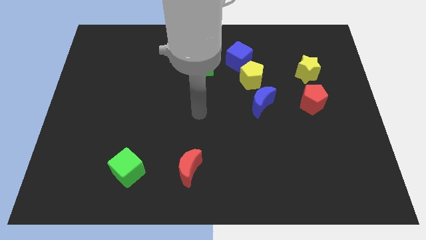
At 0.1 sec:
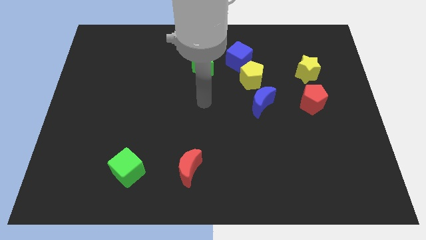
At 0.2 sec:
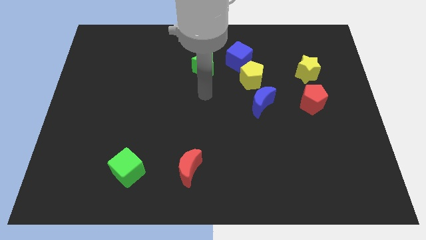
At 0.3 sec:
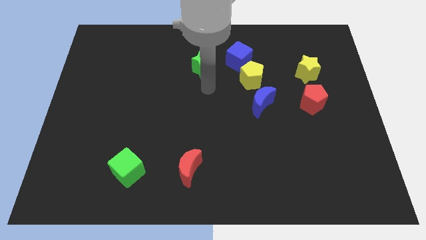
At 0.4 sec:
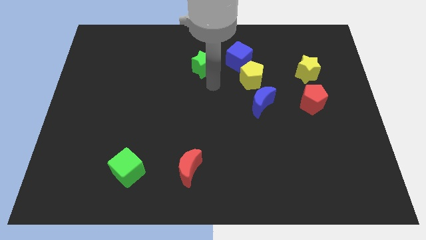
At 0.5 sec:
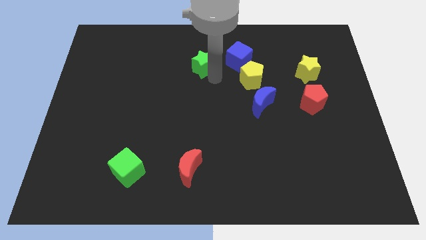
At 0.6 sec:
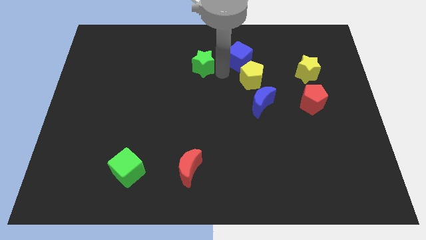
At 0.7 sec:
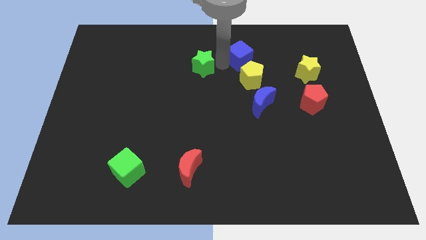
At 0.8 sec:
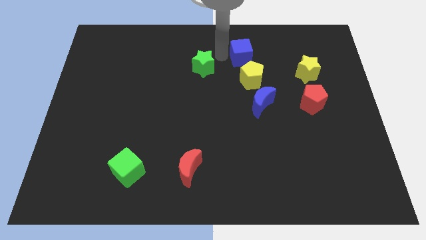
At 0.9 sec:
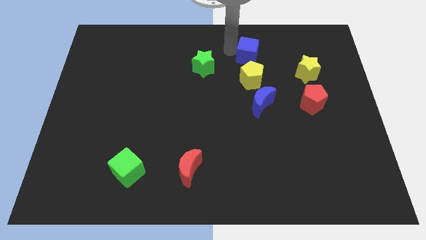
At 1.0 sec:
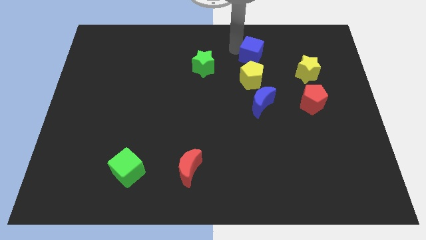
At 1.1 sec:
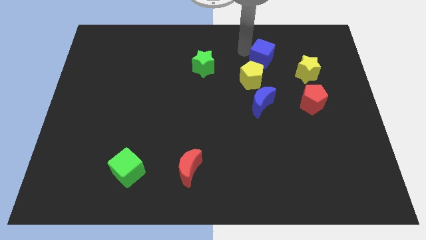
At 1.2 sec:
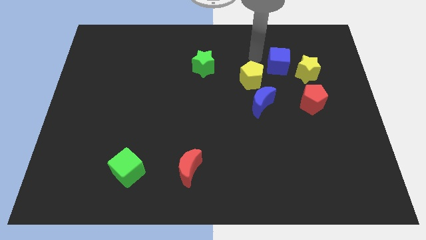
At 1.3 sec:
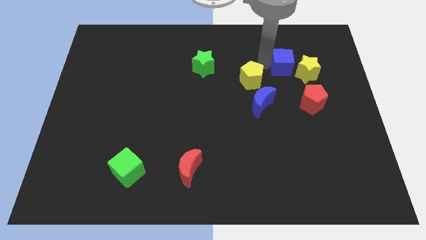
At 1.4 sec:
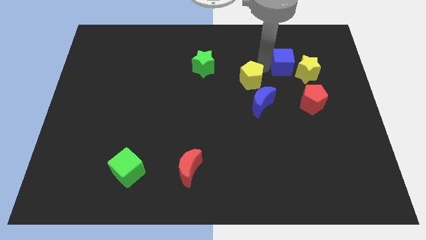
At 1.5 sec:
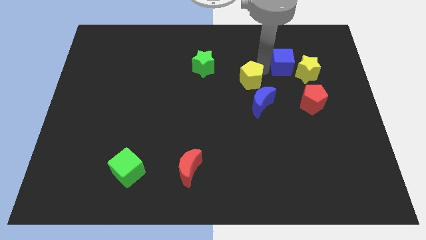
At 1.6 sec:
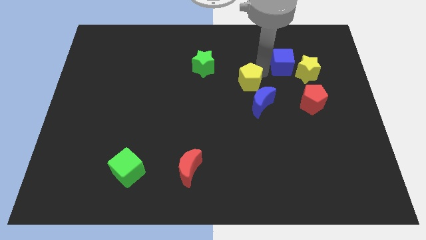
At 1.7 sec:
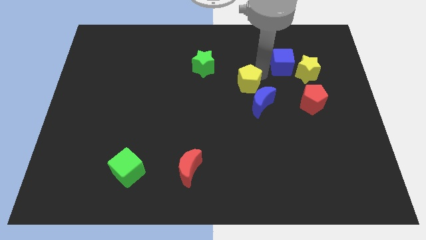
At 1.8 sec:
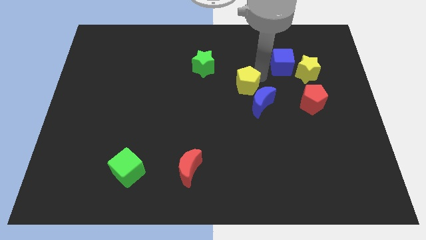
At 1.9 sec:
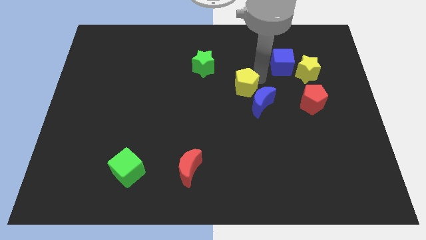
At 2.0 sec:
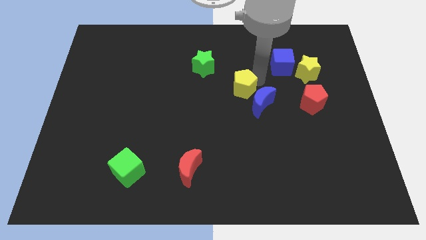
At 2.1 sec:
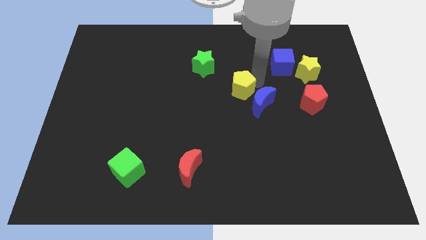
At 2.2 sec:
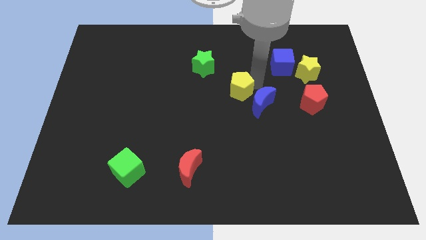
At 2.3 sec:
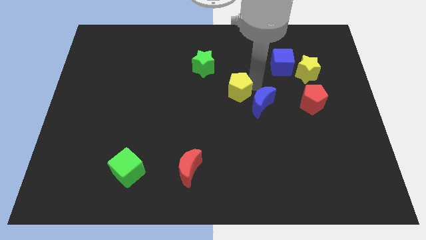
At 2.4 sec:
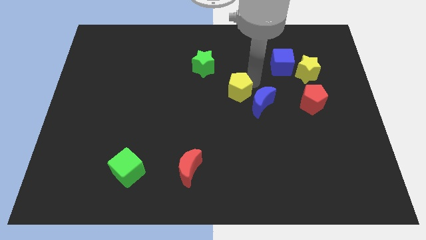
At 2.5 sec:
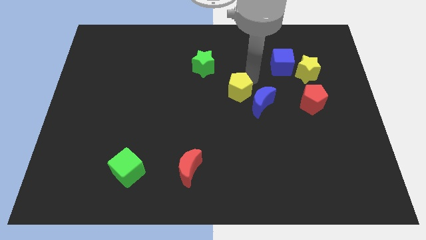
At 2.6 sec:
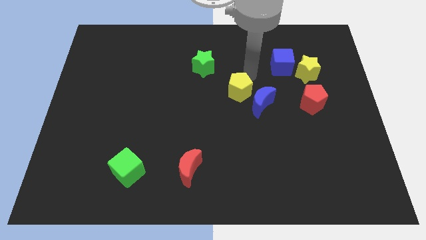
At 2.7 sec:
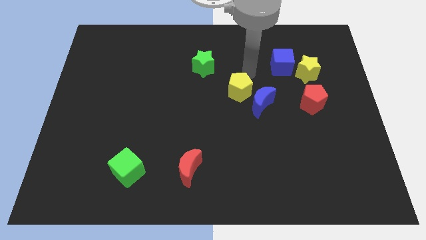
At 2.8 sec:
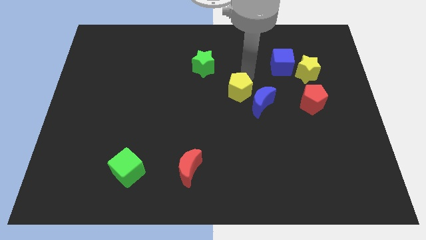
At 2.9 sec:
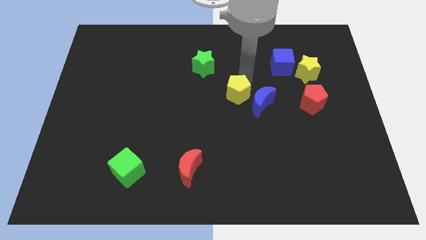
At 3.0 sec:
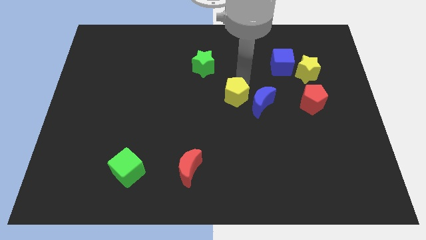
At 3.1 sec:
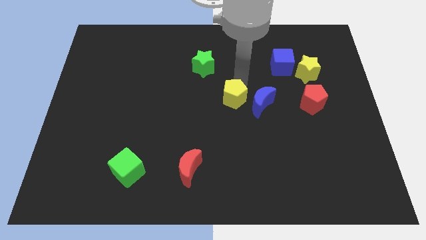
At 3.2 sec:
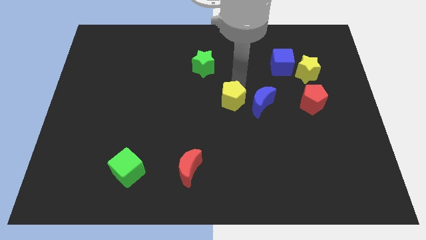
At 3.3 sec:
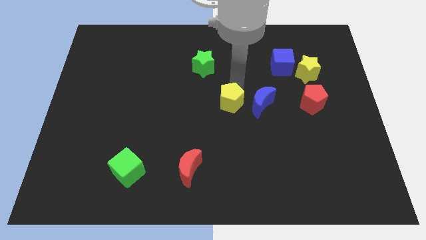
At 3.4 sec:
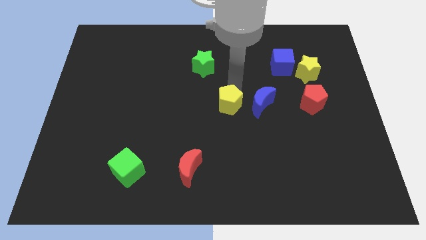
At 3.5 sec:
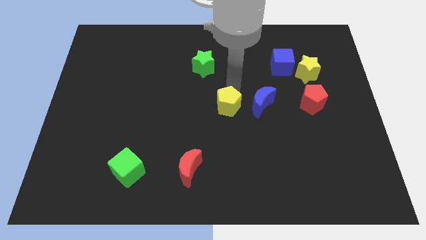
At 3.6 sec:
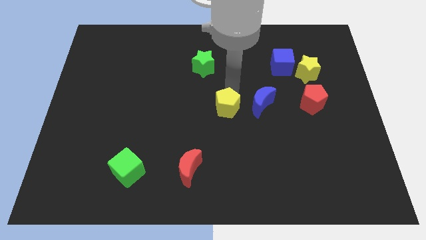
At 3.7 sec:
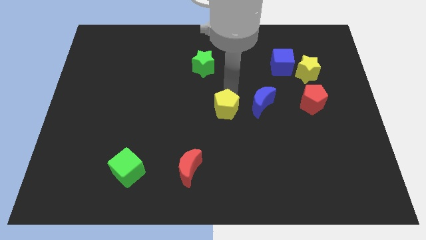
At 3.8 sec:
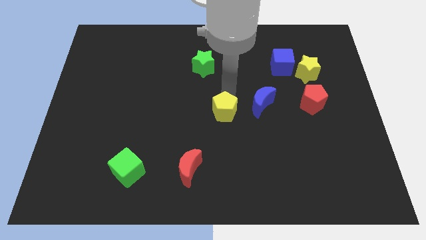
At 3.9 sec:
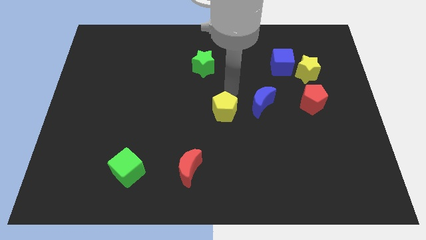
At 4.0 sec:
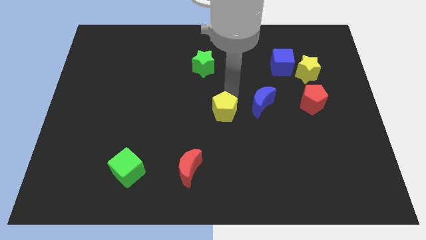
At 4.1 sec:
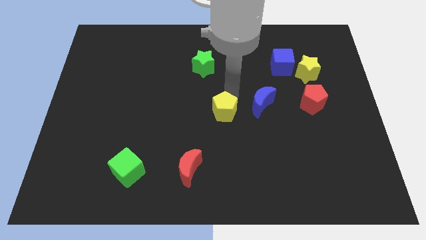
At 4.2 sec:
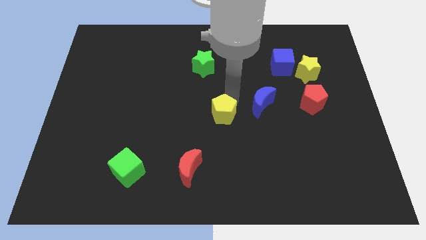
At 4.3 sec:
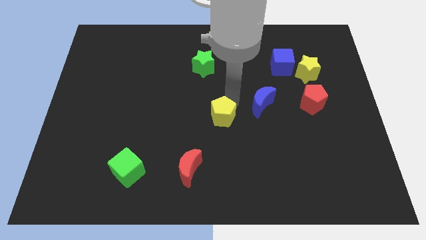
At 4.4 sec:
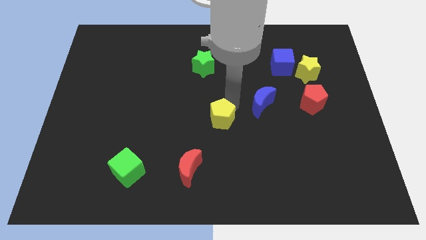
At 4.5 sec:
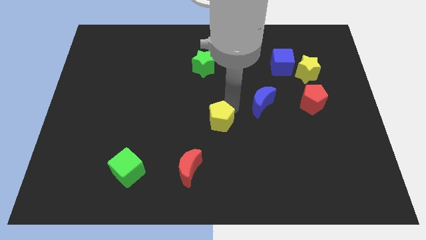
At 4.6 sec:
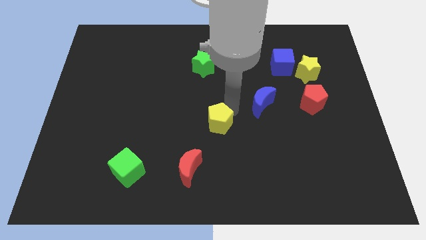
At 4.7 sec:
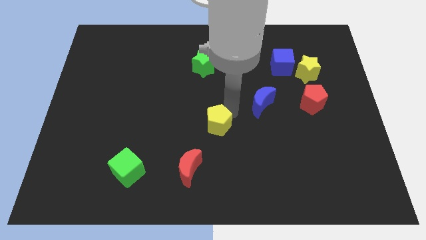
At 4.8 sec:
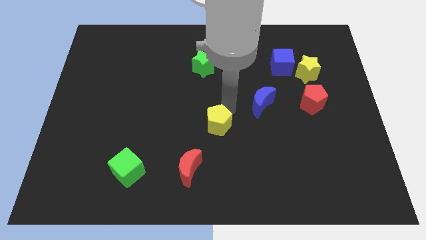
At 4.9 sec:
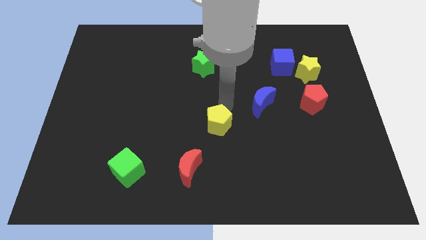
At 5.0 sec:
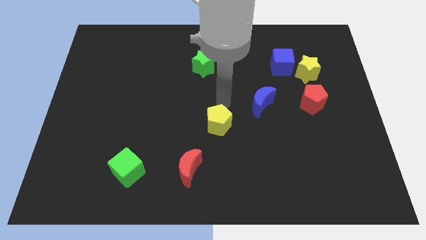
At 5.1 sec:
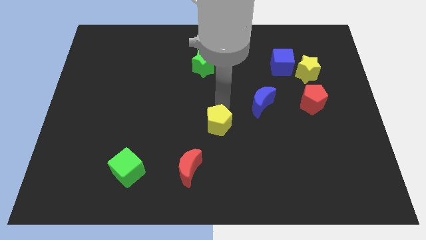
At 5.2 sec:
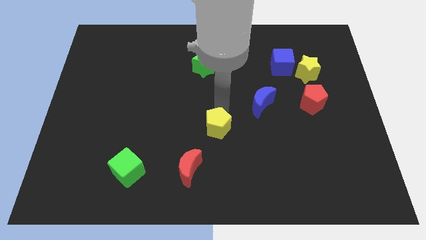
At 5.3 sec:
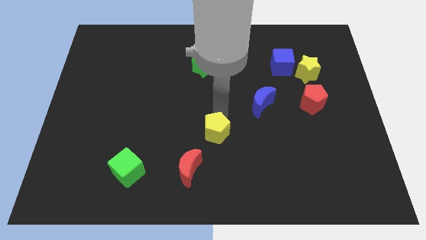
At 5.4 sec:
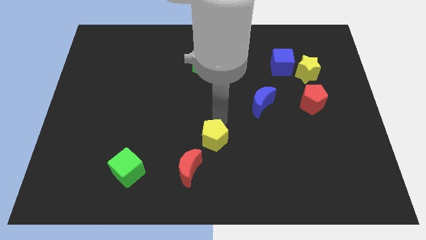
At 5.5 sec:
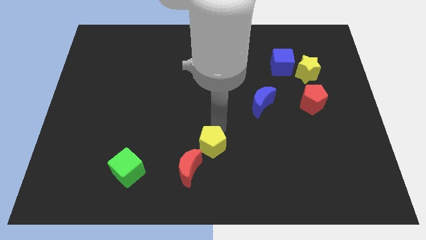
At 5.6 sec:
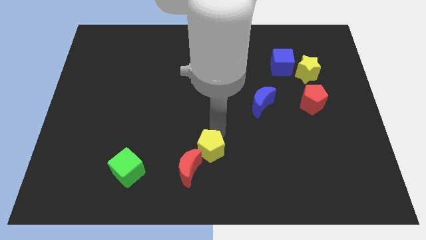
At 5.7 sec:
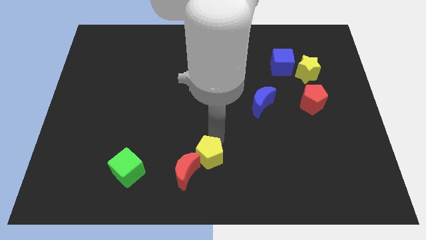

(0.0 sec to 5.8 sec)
push the yellow pentagon to the red moon

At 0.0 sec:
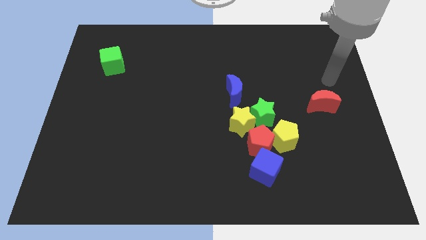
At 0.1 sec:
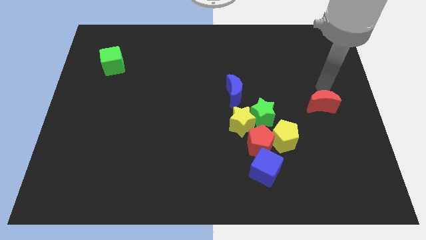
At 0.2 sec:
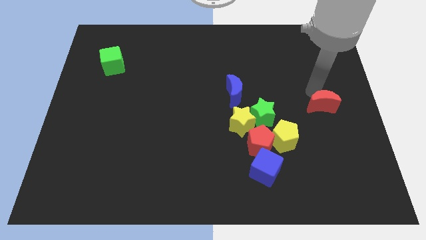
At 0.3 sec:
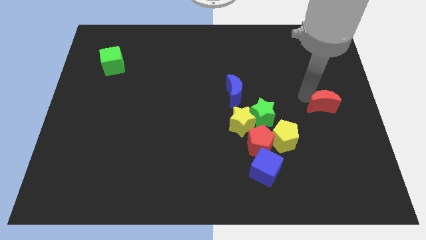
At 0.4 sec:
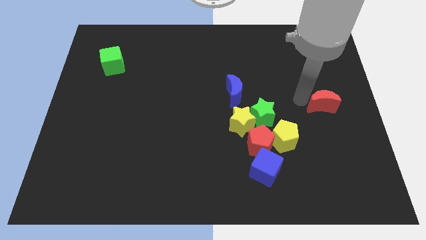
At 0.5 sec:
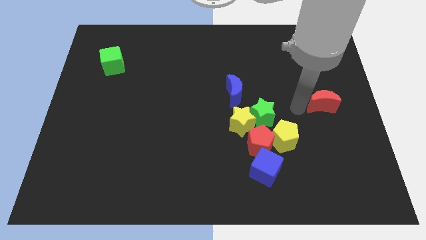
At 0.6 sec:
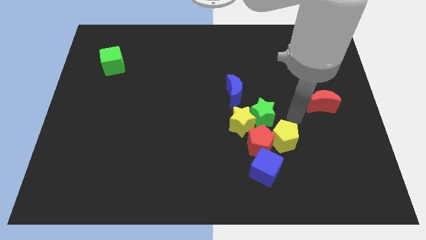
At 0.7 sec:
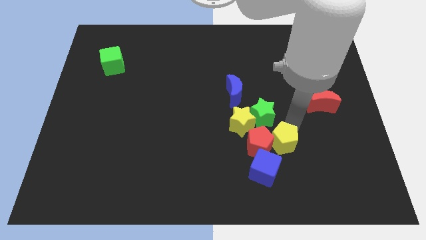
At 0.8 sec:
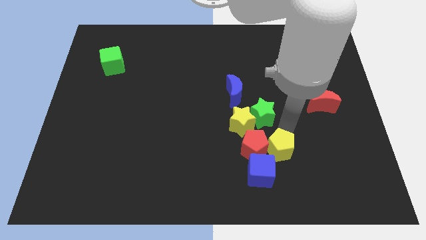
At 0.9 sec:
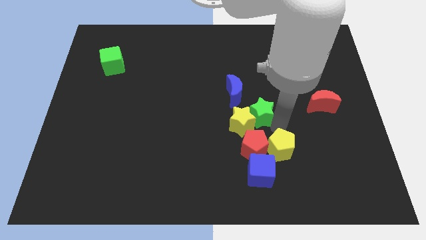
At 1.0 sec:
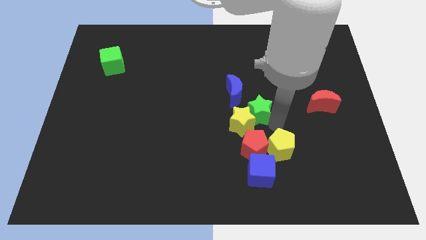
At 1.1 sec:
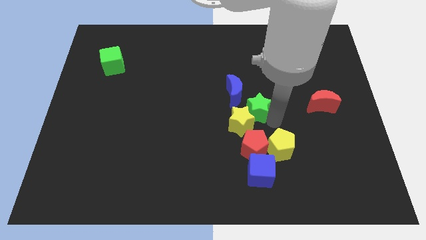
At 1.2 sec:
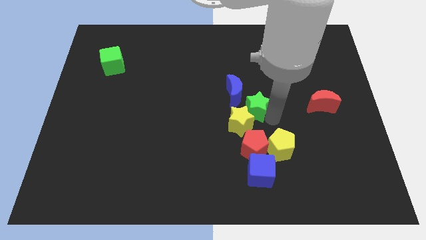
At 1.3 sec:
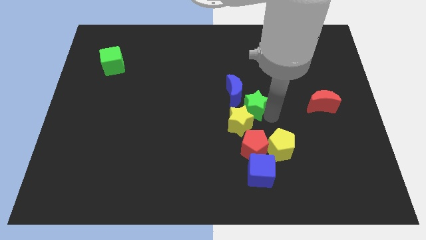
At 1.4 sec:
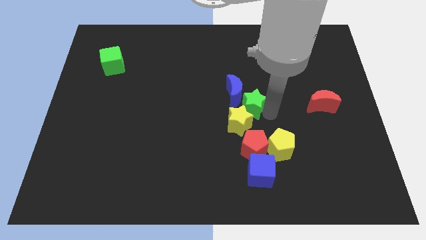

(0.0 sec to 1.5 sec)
push the green star towards the blue moon

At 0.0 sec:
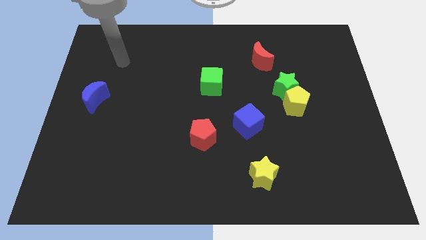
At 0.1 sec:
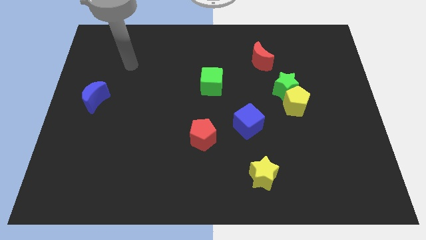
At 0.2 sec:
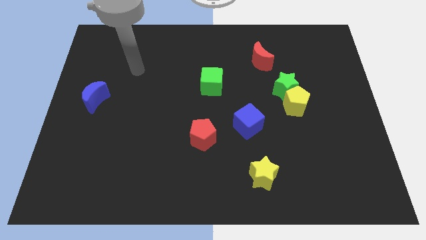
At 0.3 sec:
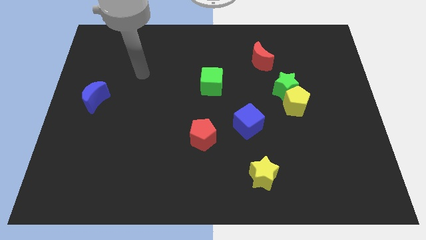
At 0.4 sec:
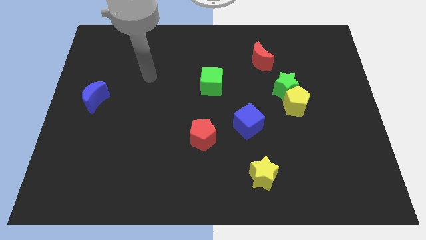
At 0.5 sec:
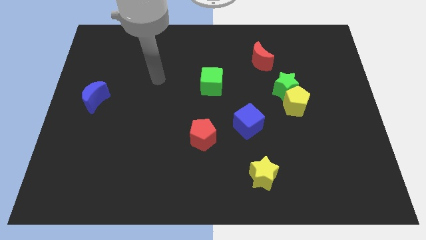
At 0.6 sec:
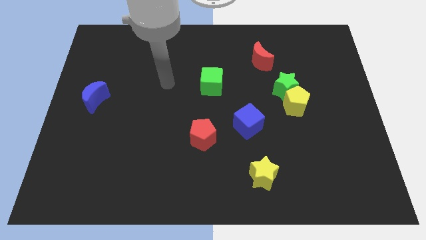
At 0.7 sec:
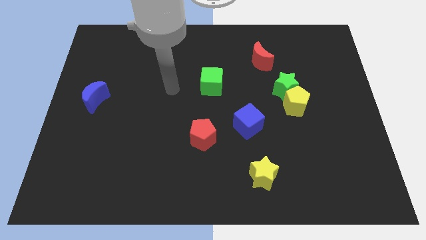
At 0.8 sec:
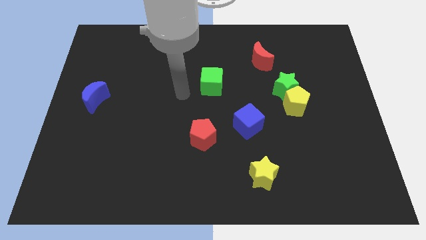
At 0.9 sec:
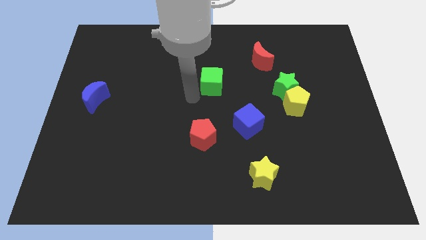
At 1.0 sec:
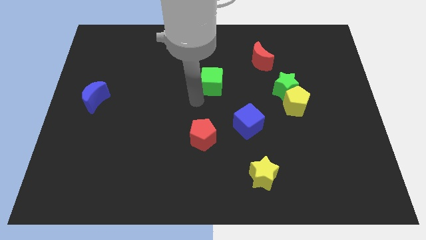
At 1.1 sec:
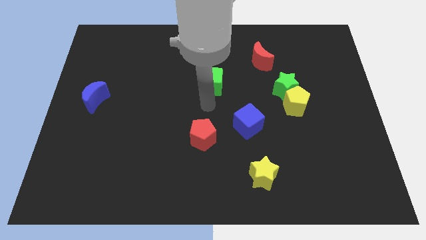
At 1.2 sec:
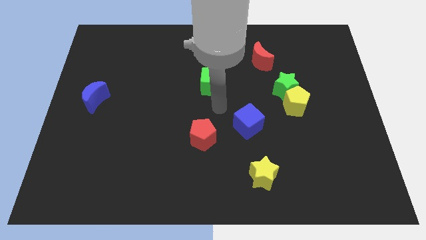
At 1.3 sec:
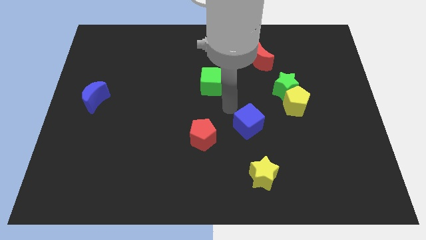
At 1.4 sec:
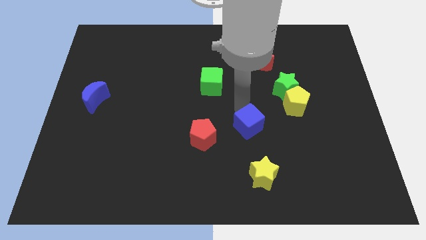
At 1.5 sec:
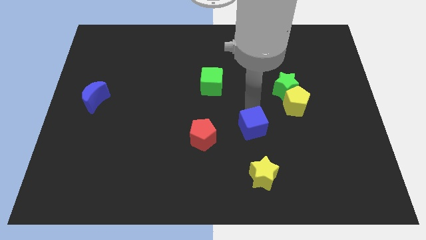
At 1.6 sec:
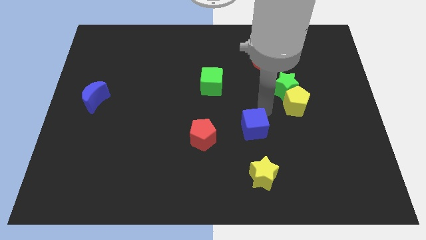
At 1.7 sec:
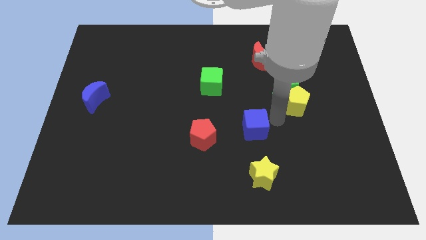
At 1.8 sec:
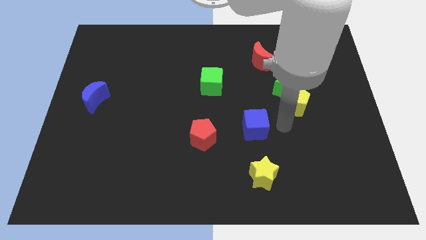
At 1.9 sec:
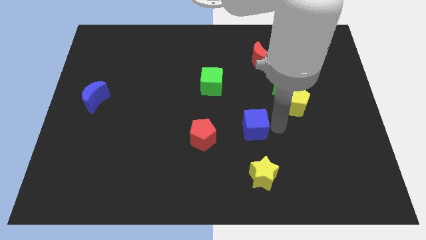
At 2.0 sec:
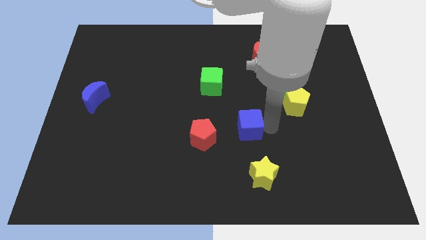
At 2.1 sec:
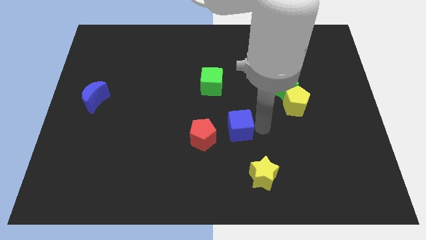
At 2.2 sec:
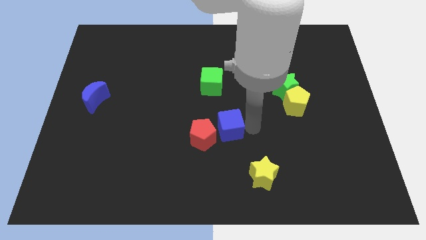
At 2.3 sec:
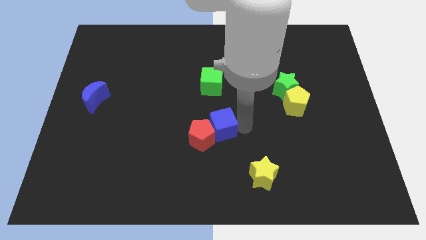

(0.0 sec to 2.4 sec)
push the blue cube close to the red pentagon
